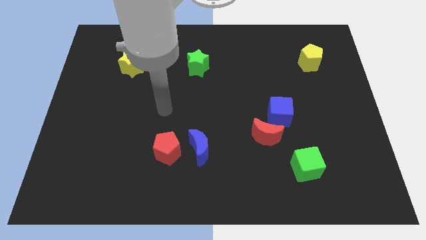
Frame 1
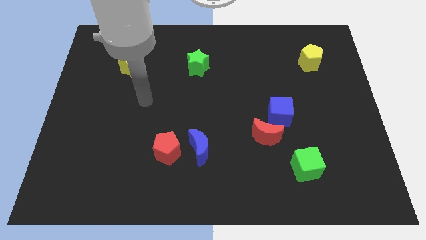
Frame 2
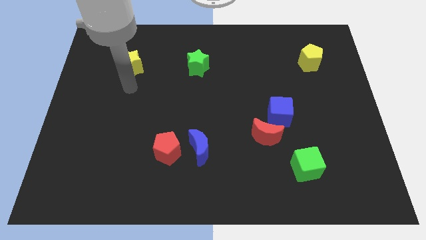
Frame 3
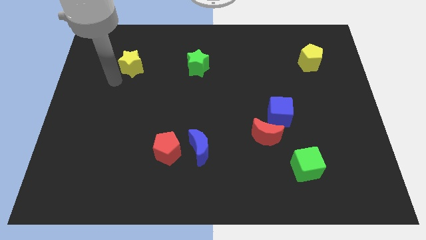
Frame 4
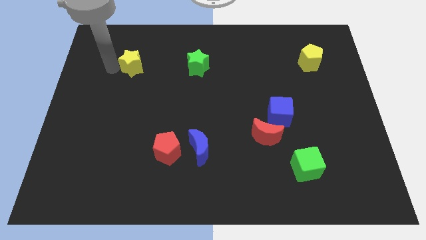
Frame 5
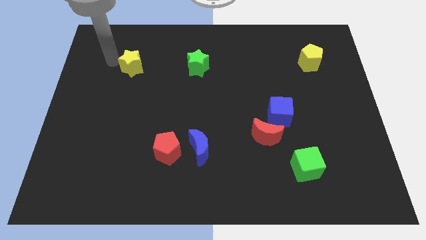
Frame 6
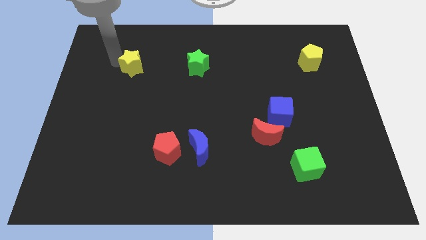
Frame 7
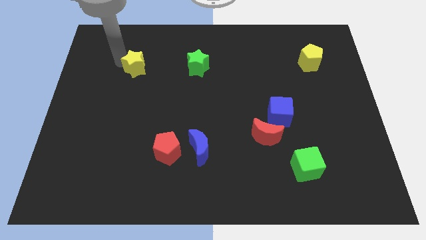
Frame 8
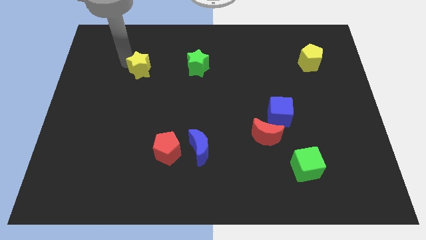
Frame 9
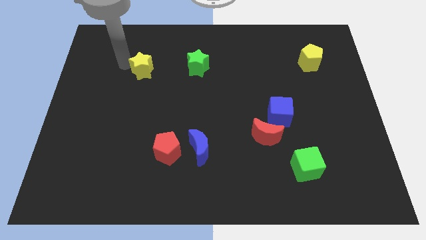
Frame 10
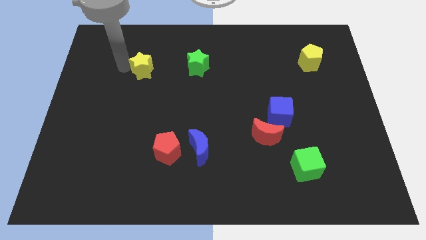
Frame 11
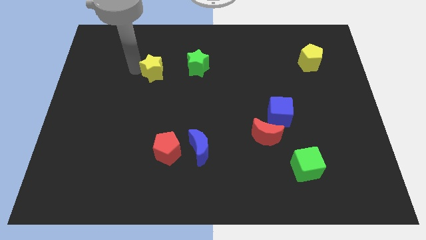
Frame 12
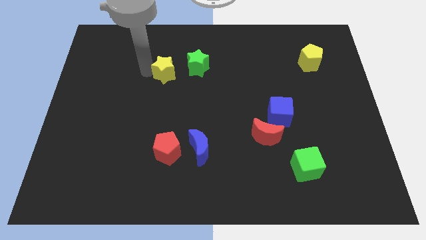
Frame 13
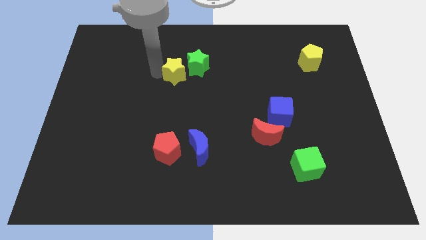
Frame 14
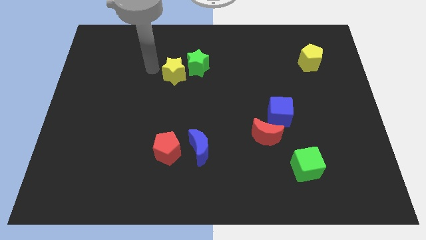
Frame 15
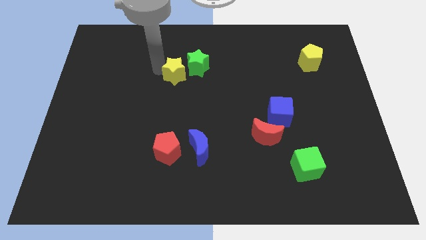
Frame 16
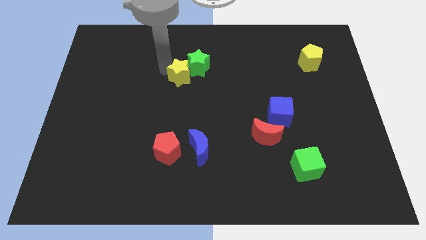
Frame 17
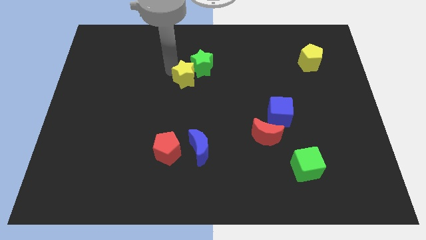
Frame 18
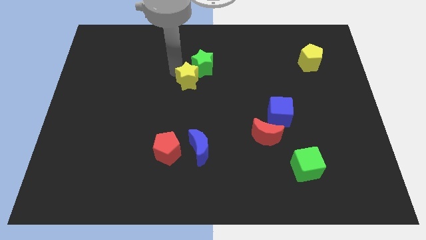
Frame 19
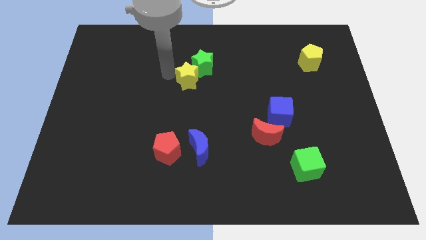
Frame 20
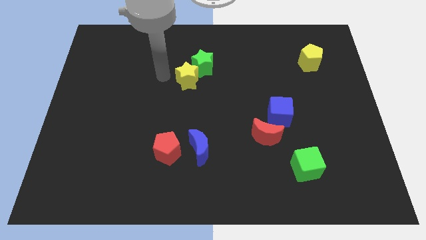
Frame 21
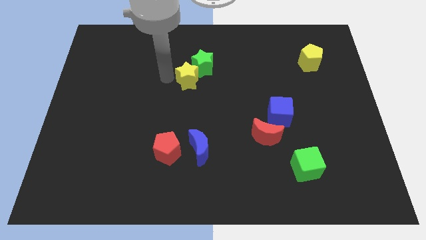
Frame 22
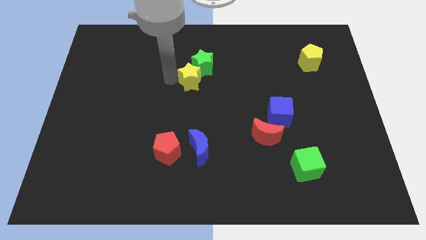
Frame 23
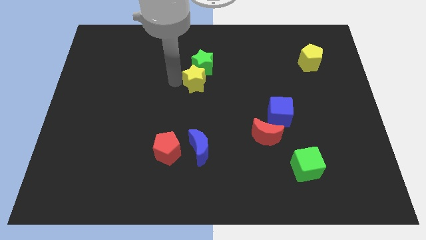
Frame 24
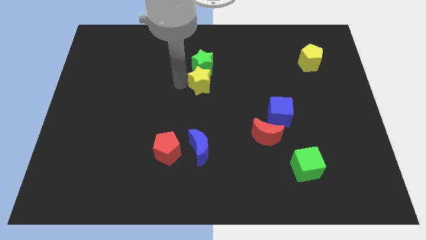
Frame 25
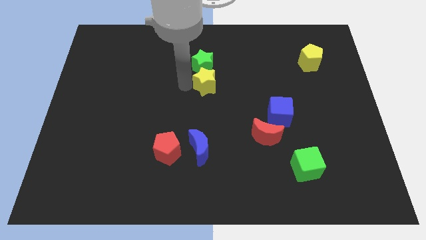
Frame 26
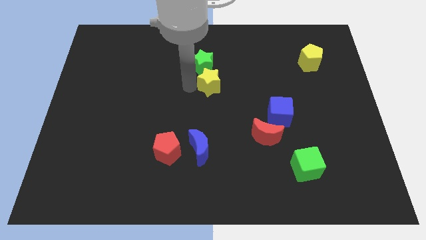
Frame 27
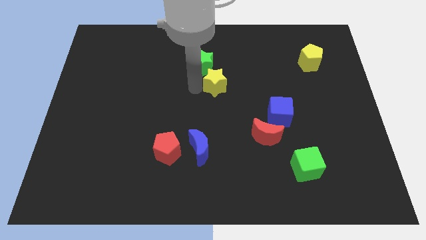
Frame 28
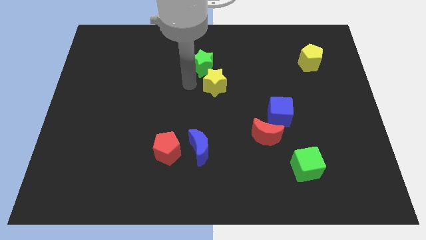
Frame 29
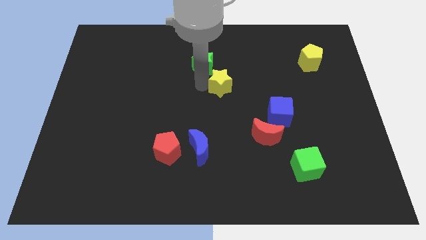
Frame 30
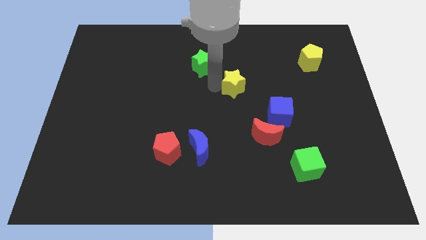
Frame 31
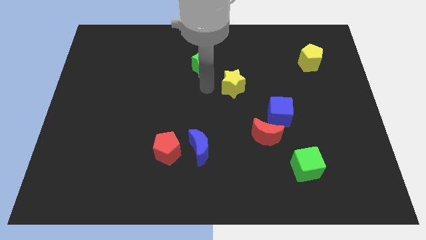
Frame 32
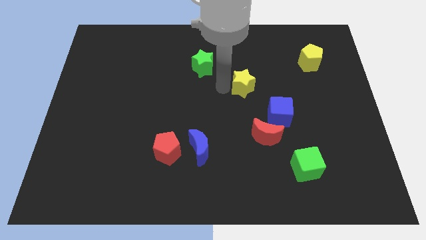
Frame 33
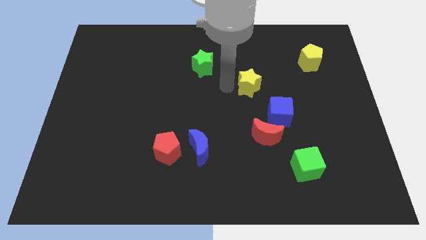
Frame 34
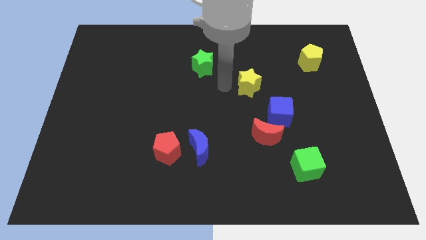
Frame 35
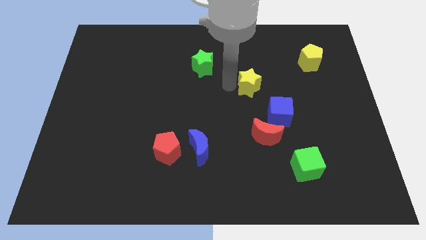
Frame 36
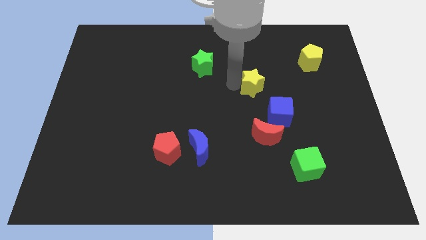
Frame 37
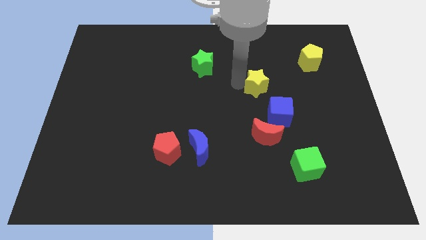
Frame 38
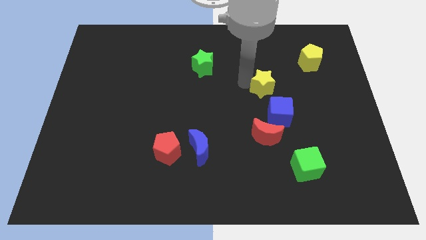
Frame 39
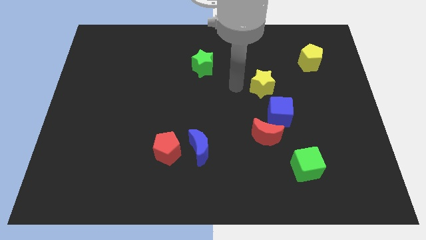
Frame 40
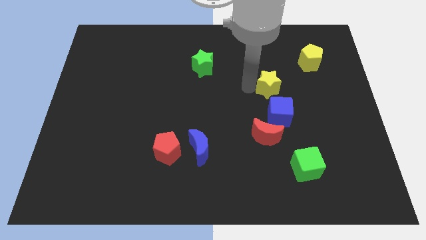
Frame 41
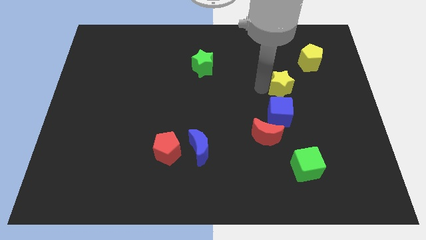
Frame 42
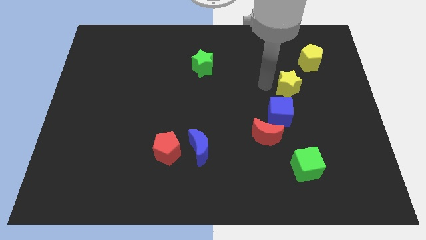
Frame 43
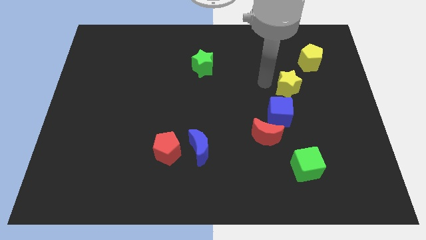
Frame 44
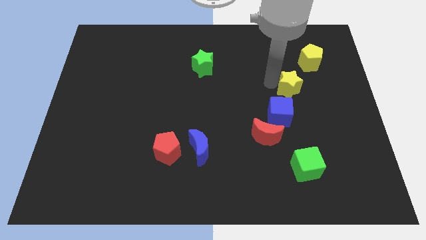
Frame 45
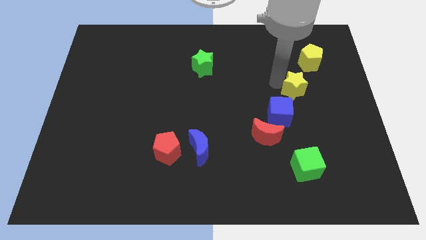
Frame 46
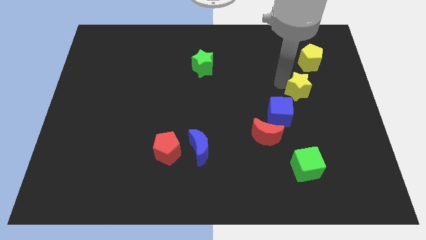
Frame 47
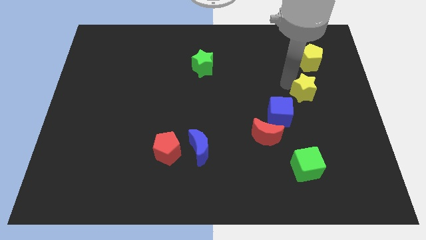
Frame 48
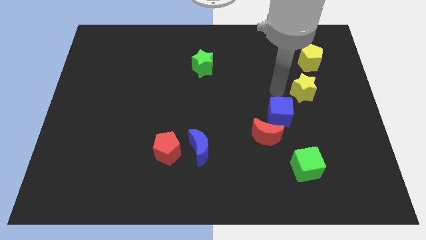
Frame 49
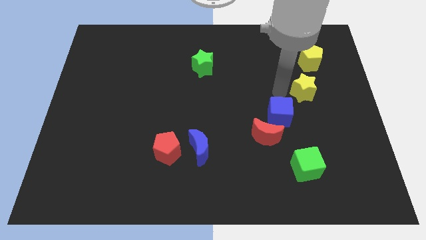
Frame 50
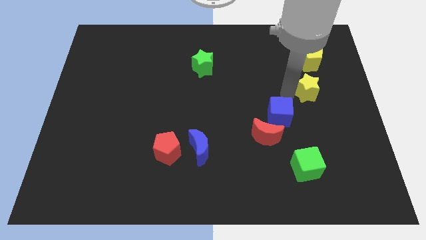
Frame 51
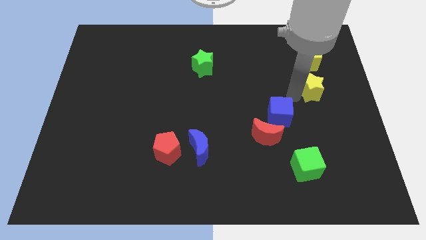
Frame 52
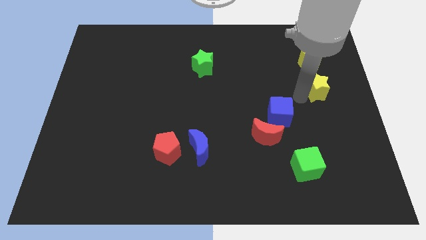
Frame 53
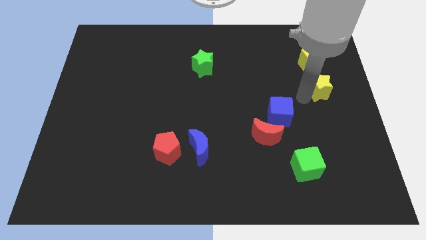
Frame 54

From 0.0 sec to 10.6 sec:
put the yellow star to the center right

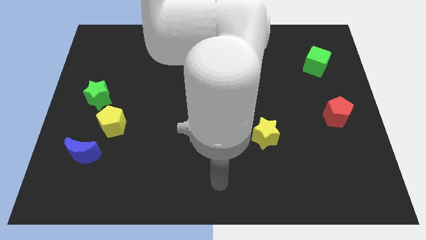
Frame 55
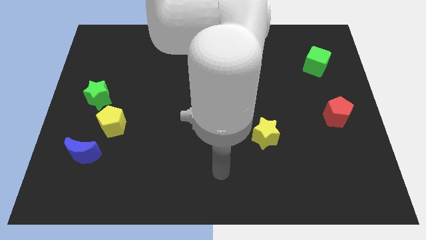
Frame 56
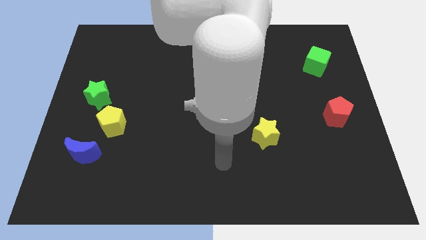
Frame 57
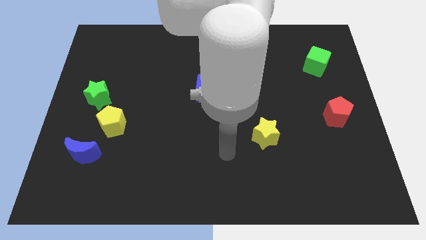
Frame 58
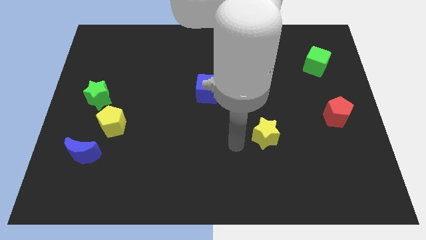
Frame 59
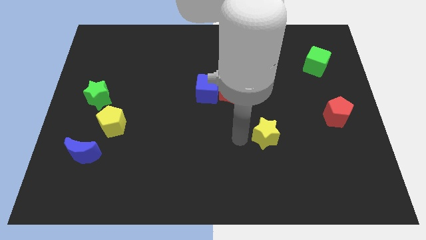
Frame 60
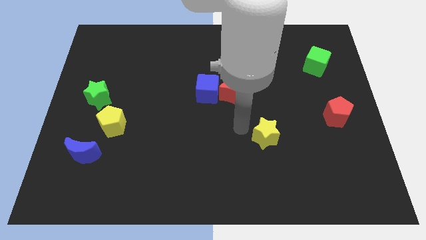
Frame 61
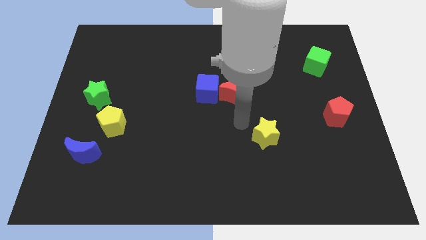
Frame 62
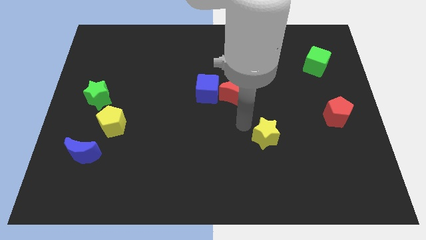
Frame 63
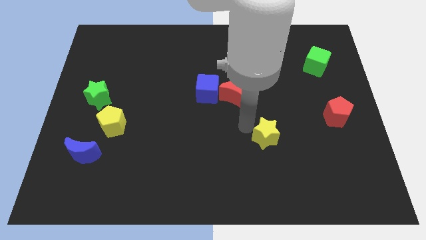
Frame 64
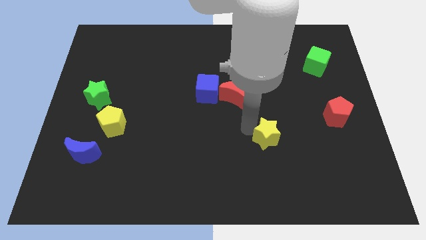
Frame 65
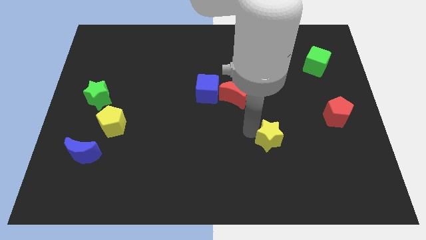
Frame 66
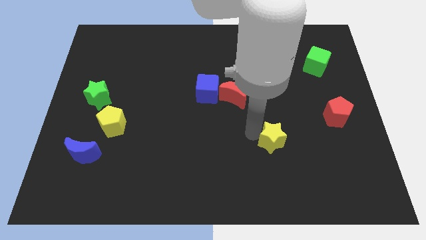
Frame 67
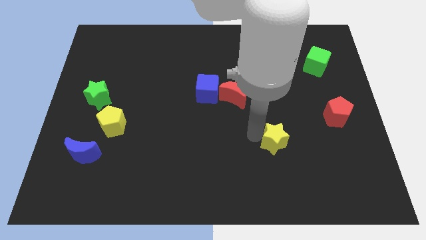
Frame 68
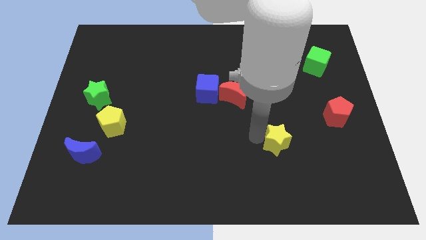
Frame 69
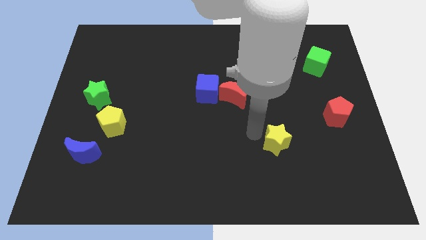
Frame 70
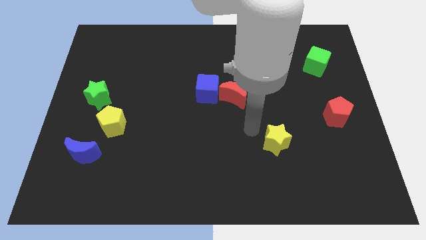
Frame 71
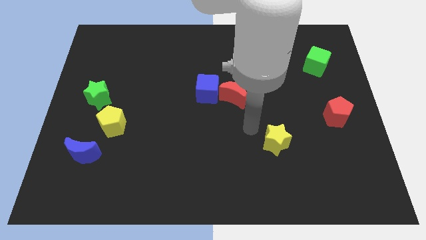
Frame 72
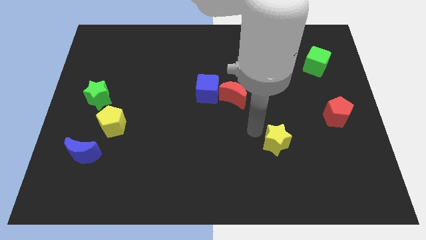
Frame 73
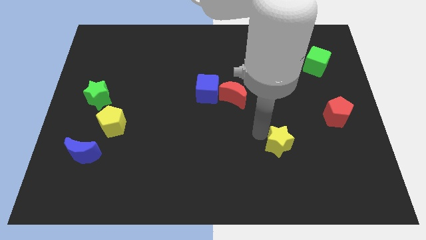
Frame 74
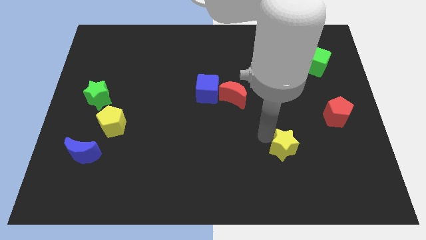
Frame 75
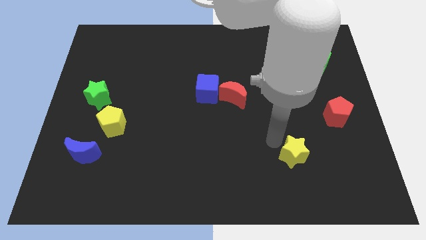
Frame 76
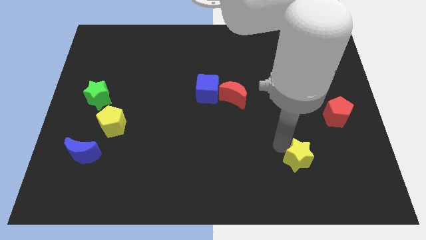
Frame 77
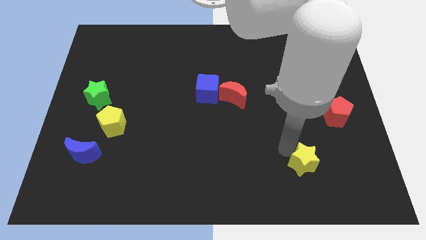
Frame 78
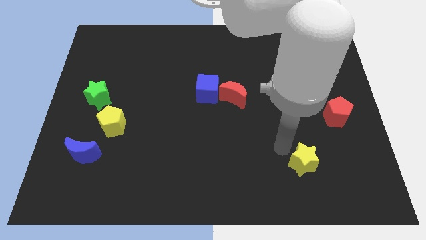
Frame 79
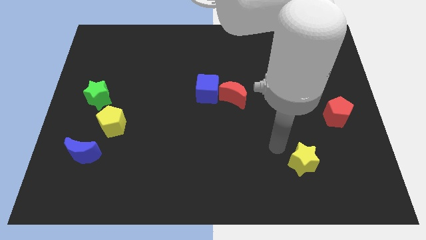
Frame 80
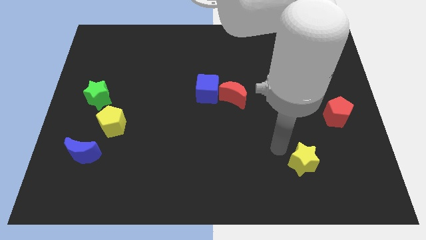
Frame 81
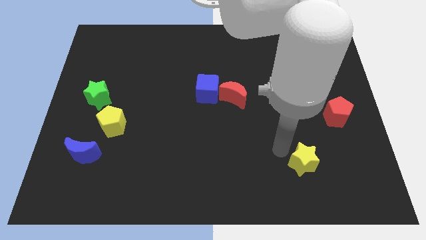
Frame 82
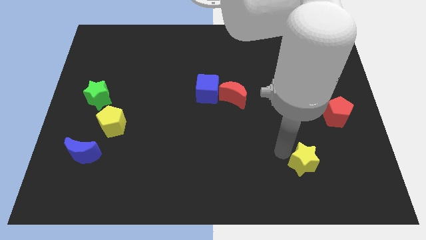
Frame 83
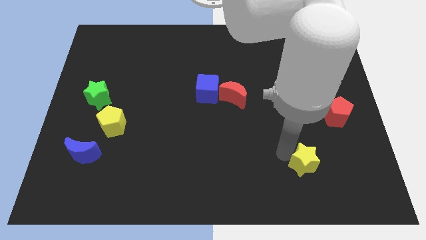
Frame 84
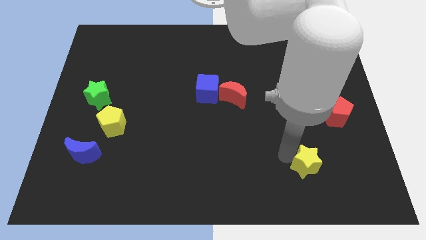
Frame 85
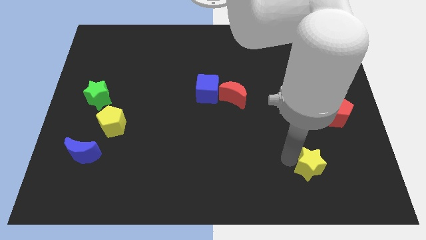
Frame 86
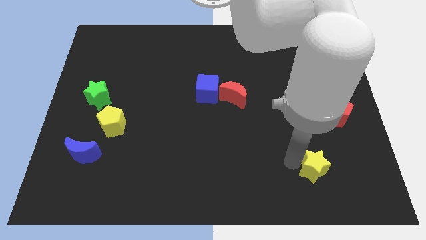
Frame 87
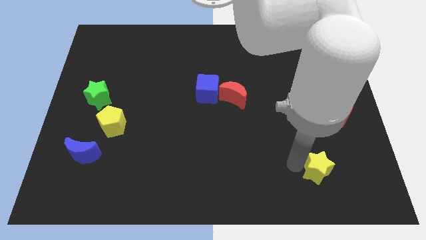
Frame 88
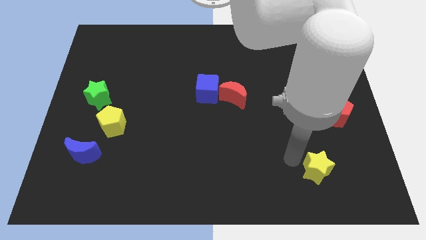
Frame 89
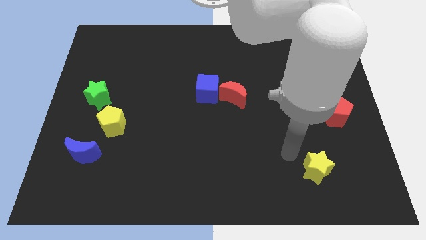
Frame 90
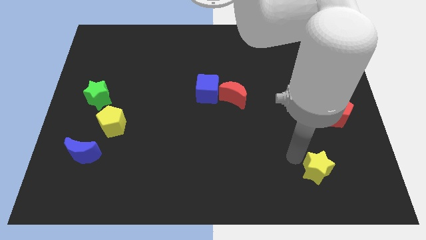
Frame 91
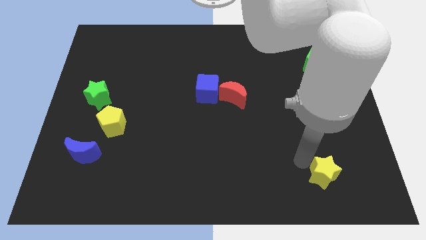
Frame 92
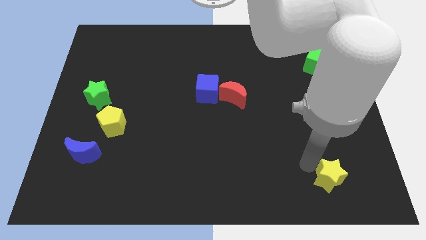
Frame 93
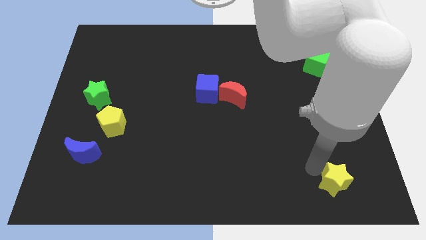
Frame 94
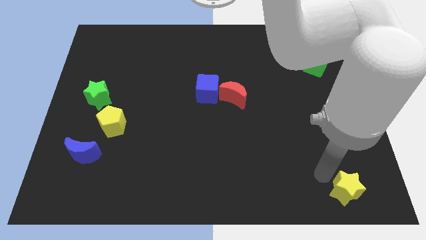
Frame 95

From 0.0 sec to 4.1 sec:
slide the yellow star to the bottom right corner
